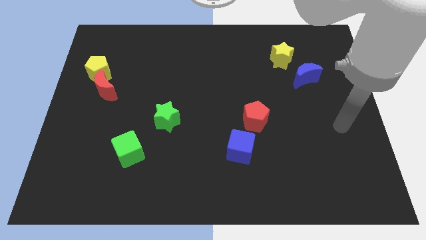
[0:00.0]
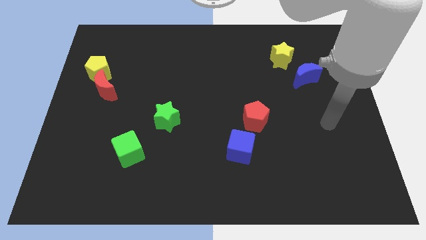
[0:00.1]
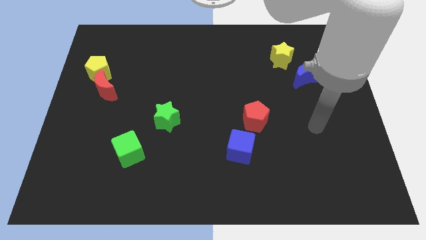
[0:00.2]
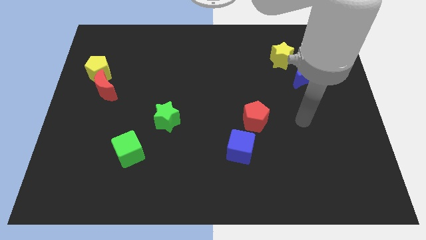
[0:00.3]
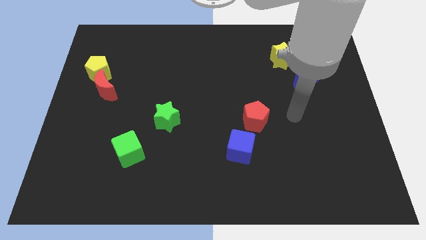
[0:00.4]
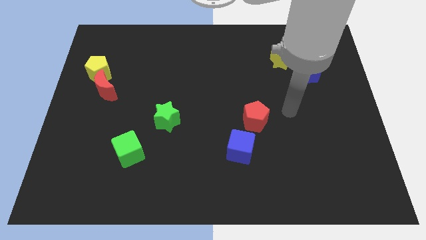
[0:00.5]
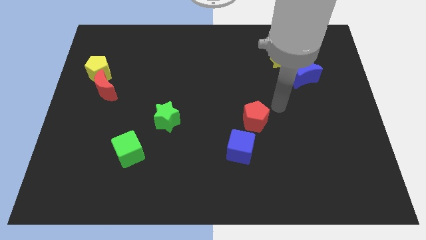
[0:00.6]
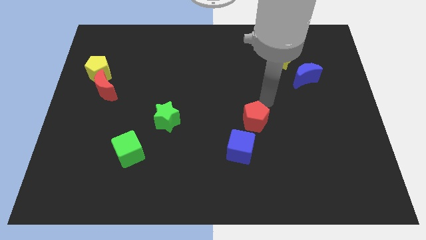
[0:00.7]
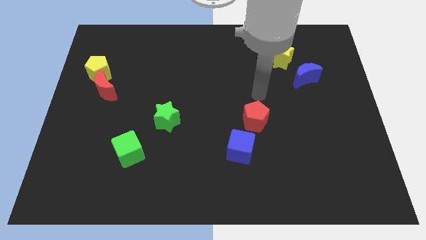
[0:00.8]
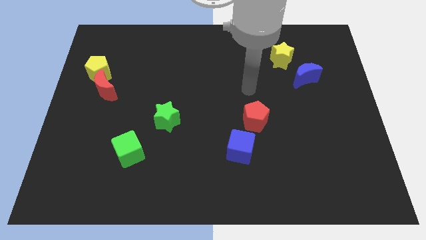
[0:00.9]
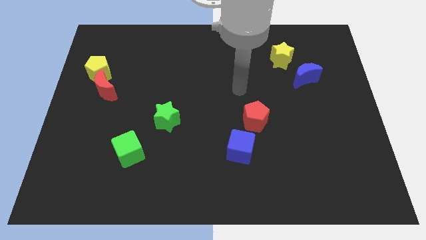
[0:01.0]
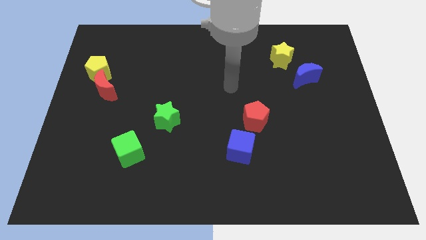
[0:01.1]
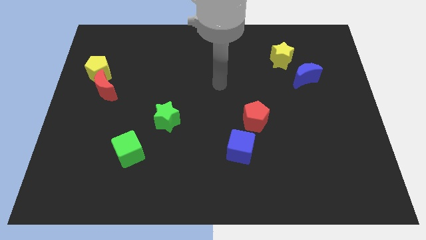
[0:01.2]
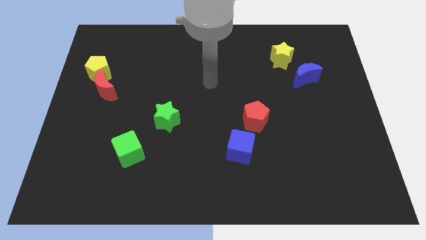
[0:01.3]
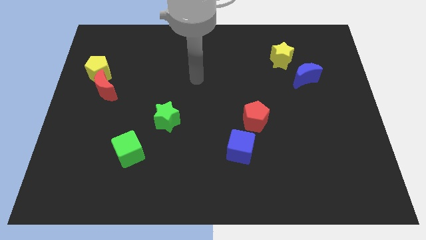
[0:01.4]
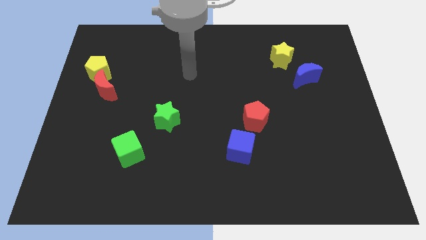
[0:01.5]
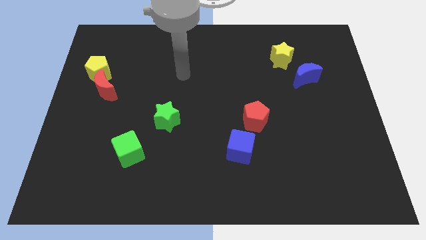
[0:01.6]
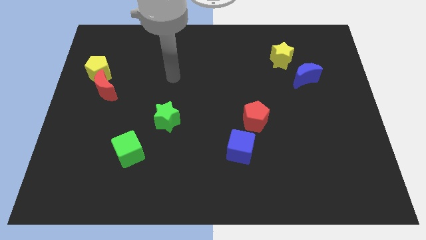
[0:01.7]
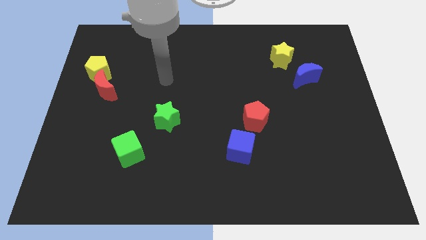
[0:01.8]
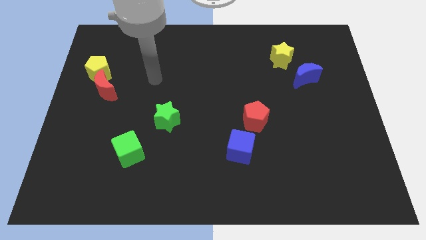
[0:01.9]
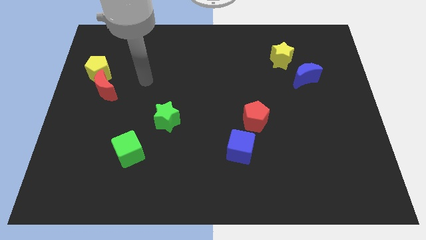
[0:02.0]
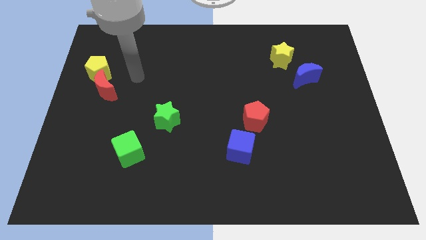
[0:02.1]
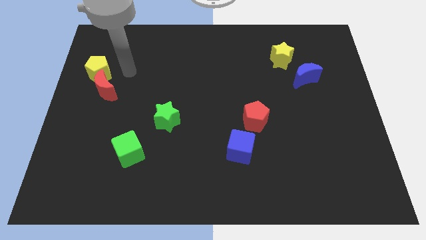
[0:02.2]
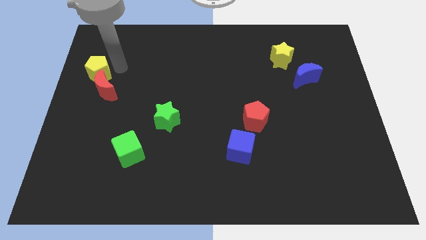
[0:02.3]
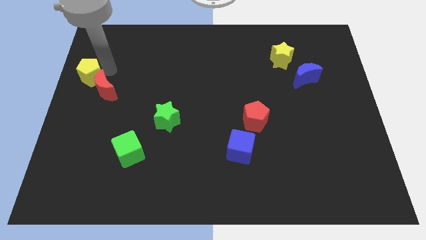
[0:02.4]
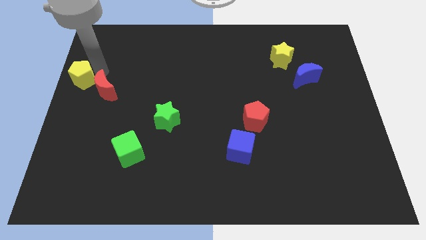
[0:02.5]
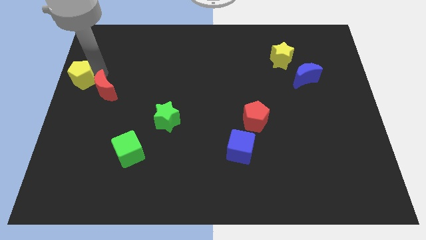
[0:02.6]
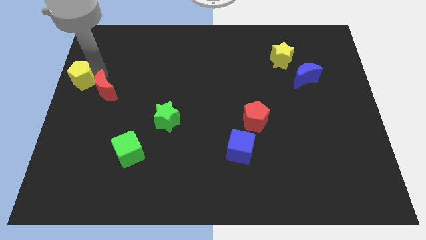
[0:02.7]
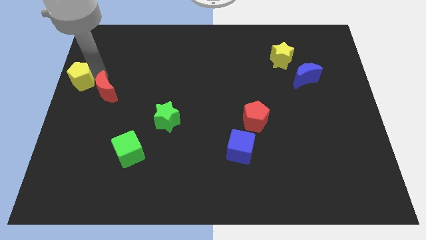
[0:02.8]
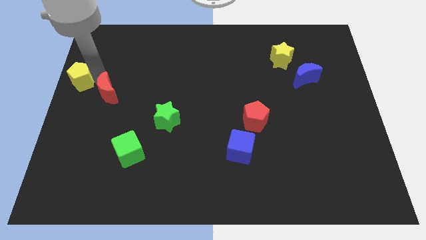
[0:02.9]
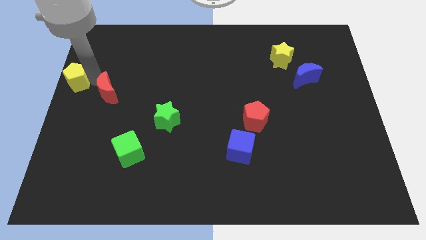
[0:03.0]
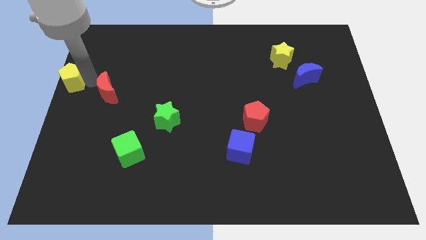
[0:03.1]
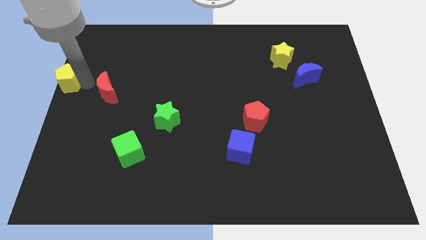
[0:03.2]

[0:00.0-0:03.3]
pull the red moon apart from the yellow pentagon

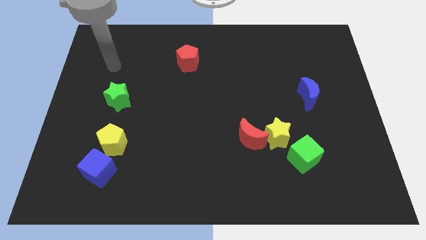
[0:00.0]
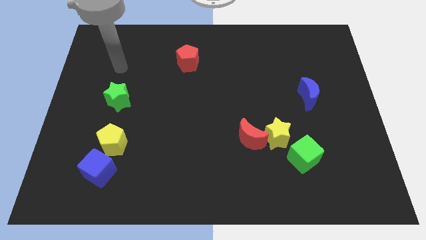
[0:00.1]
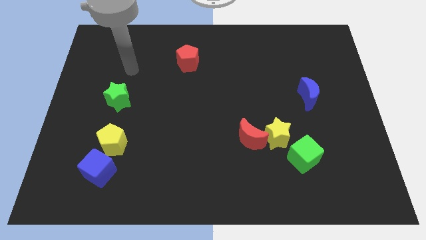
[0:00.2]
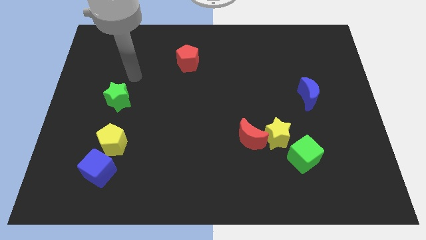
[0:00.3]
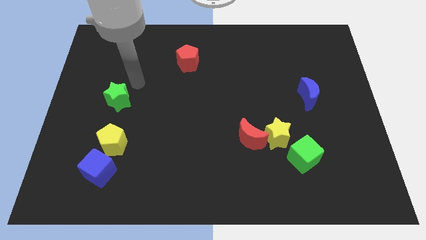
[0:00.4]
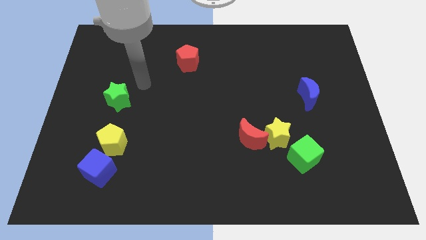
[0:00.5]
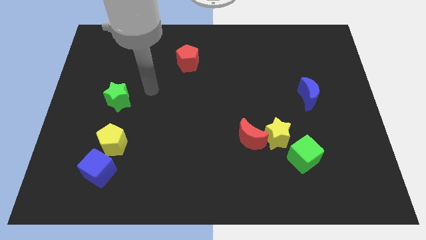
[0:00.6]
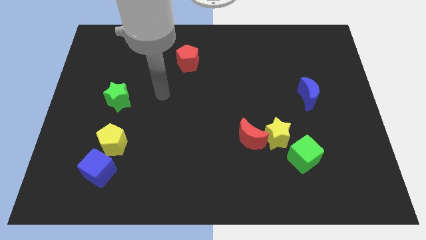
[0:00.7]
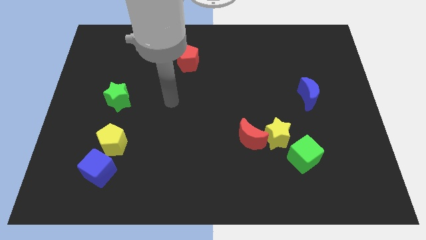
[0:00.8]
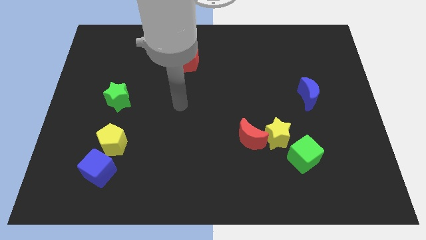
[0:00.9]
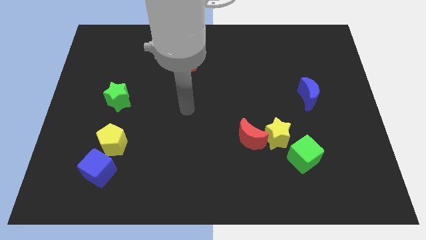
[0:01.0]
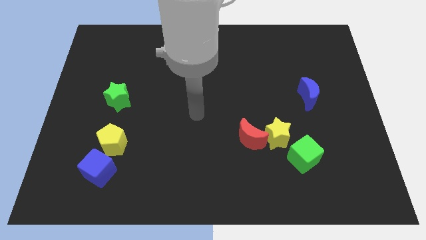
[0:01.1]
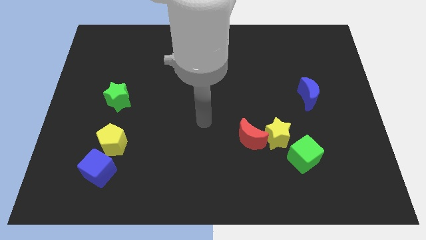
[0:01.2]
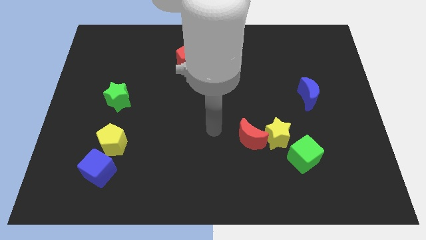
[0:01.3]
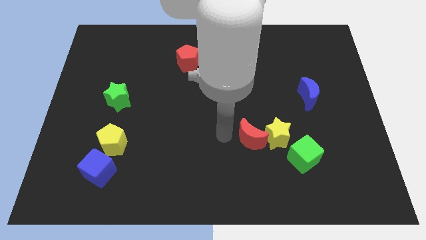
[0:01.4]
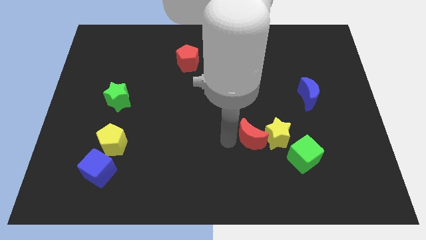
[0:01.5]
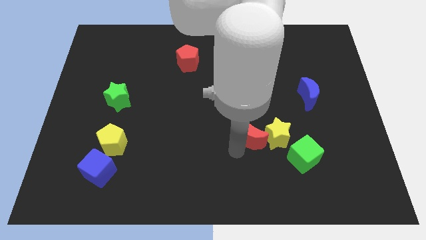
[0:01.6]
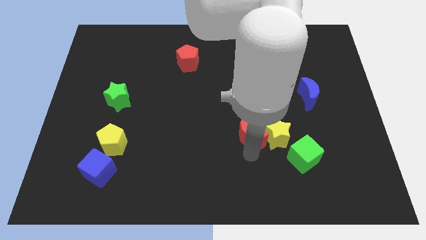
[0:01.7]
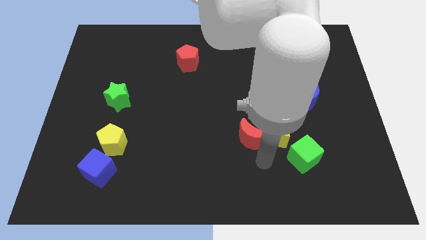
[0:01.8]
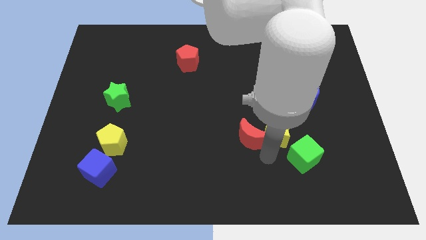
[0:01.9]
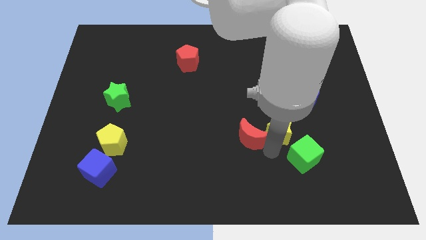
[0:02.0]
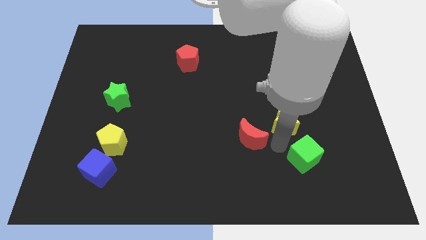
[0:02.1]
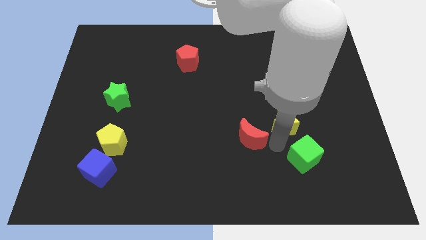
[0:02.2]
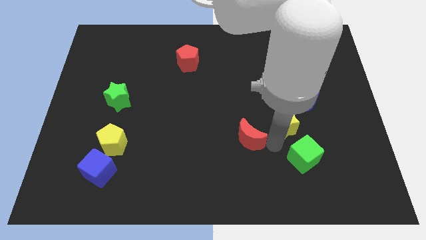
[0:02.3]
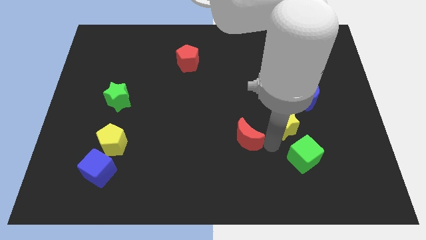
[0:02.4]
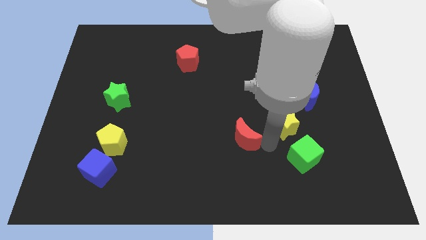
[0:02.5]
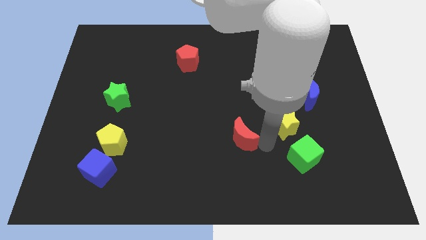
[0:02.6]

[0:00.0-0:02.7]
separate the red moon from the yellow star

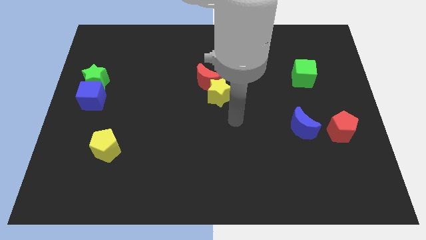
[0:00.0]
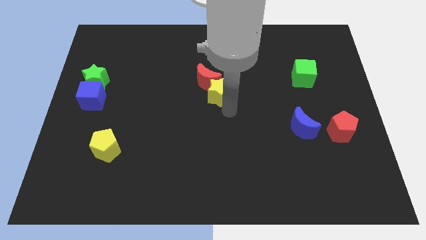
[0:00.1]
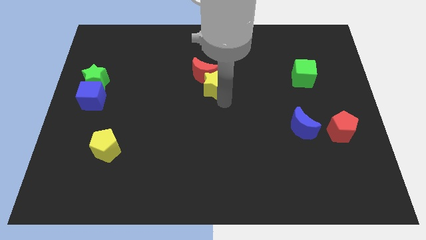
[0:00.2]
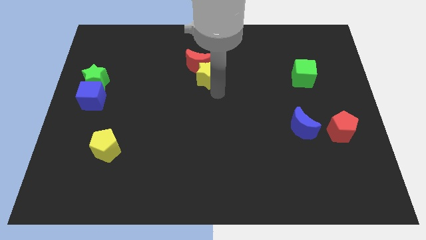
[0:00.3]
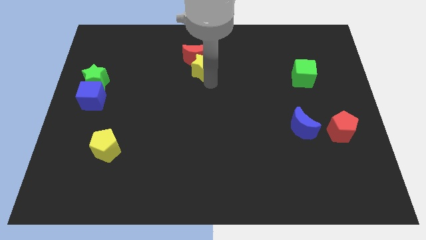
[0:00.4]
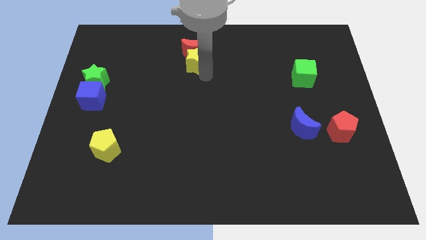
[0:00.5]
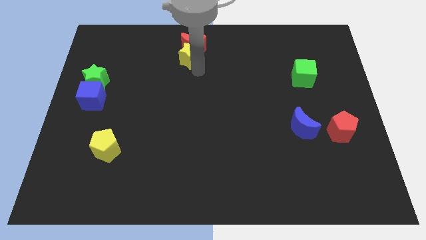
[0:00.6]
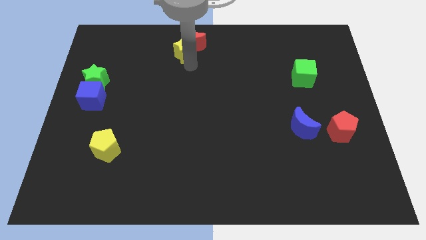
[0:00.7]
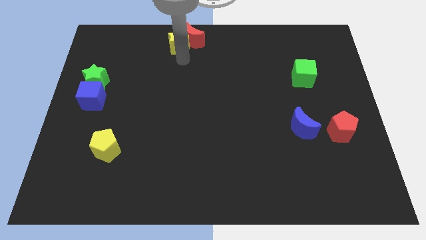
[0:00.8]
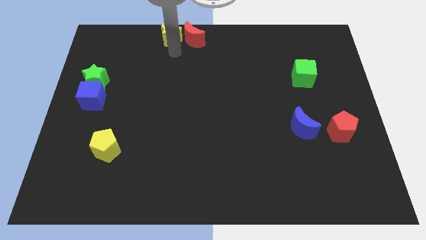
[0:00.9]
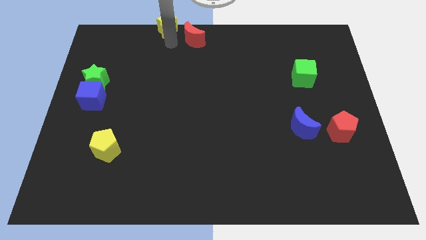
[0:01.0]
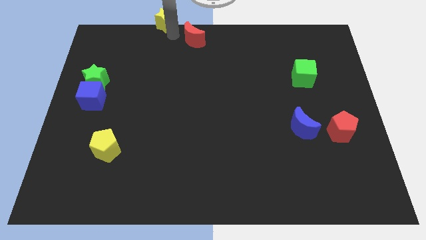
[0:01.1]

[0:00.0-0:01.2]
move the red moon away from the yellow star

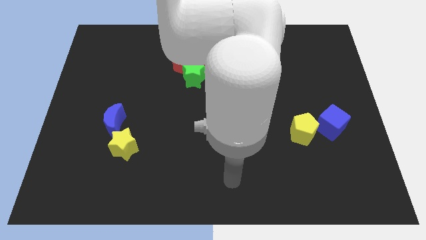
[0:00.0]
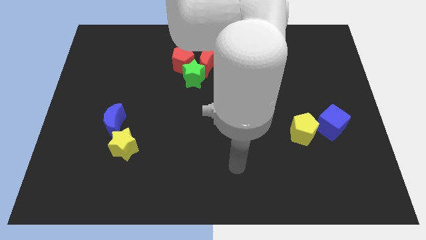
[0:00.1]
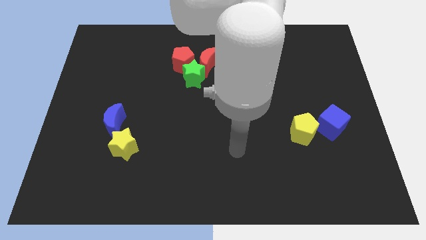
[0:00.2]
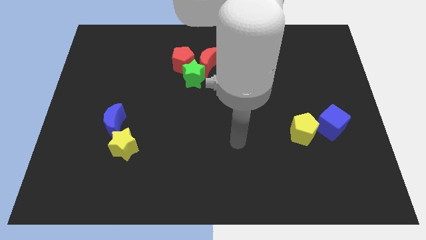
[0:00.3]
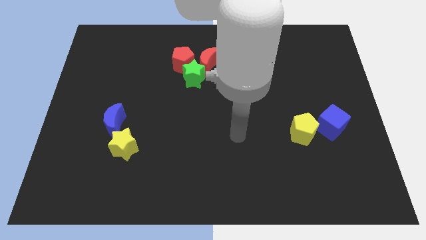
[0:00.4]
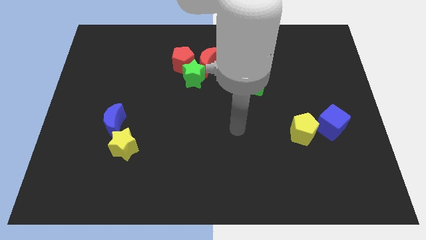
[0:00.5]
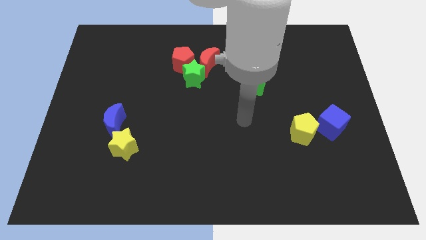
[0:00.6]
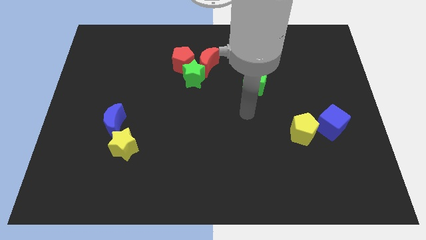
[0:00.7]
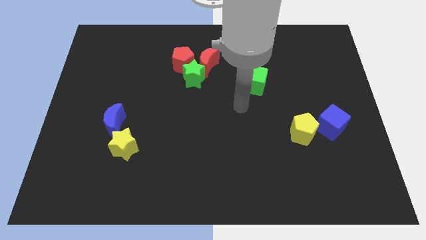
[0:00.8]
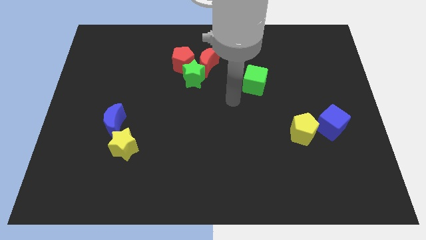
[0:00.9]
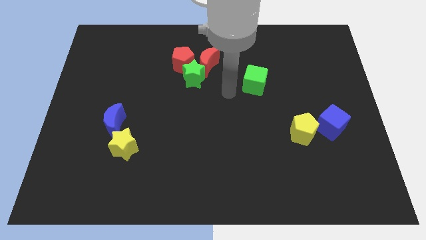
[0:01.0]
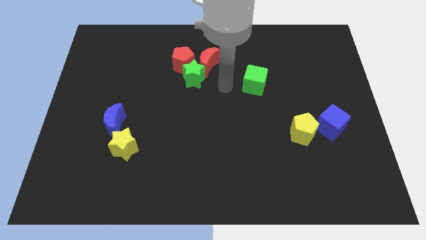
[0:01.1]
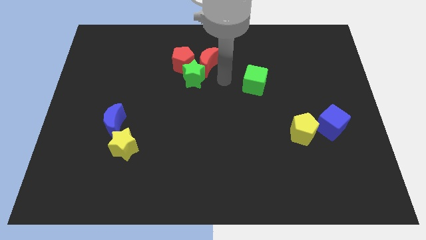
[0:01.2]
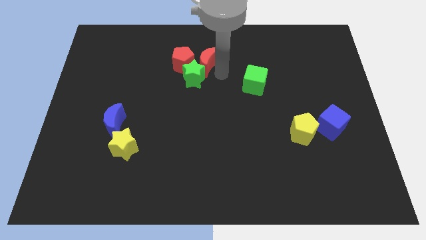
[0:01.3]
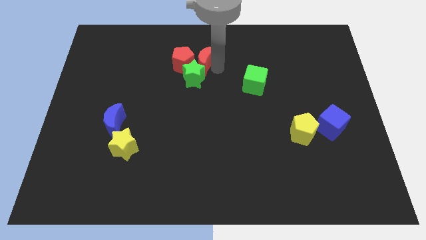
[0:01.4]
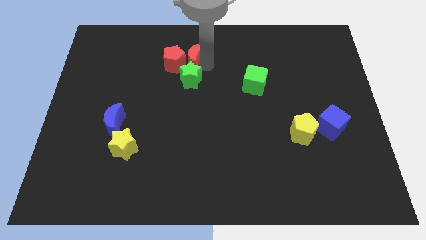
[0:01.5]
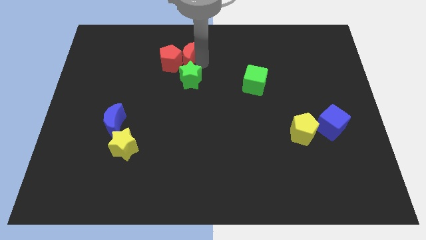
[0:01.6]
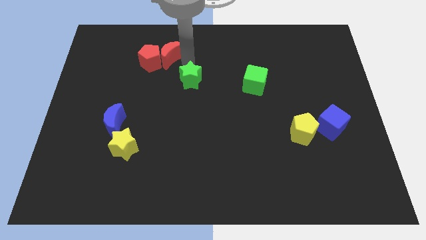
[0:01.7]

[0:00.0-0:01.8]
pull the green star apart from the red moon and red pentagon

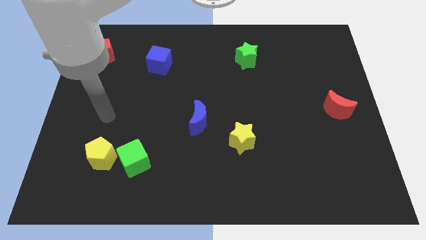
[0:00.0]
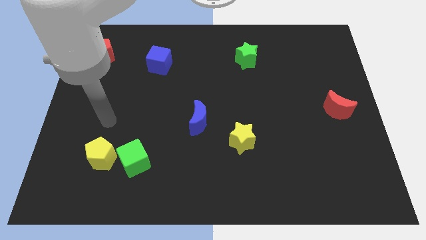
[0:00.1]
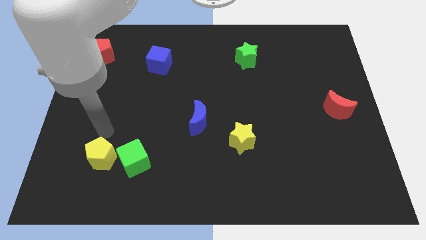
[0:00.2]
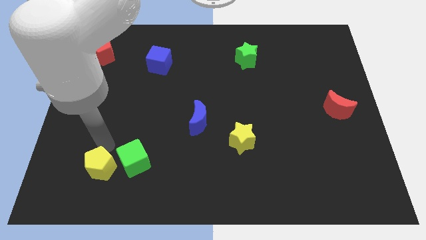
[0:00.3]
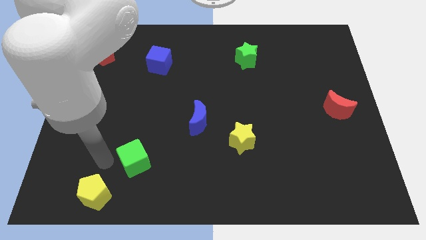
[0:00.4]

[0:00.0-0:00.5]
pull the green cube apart from the yellow pentagon
